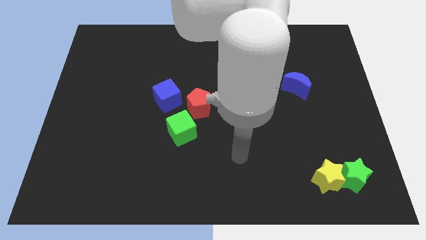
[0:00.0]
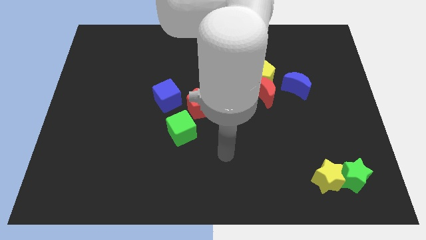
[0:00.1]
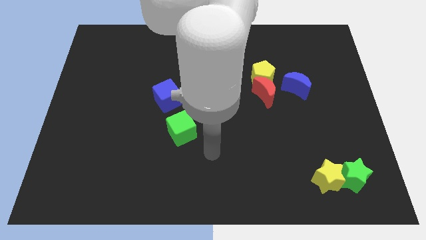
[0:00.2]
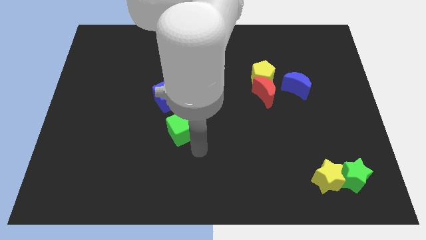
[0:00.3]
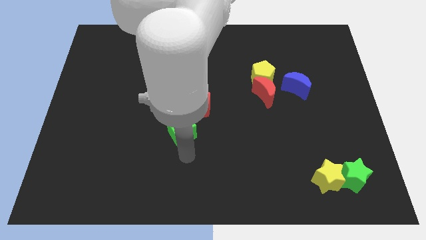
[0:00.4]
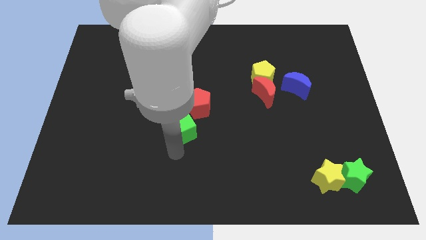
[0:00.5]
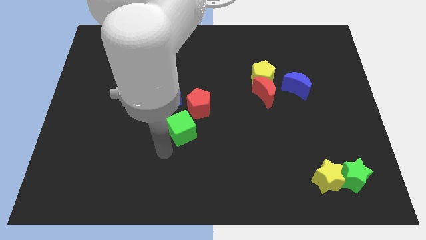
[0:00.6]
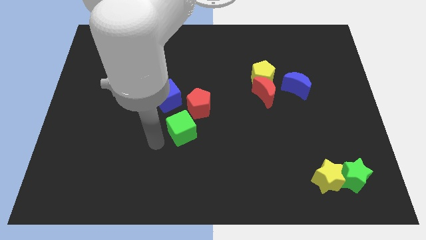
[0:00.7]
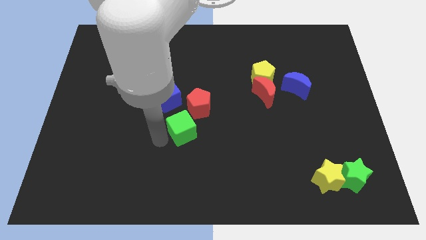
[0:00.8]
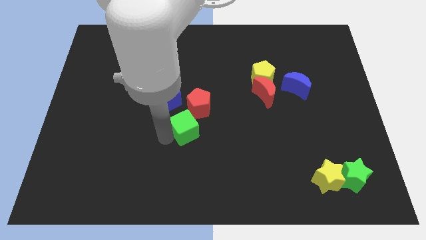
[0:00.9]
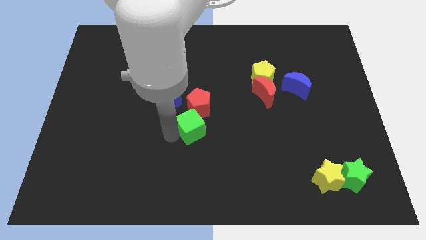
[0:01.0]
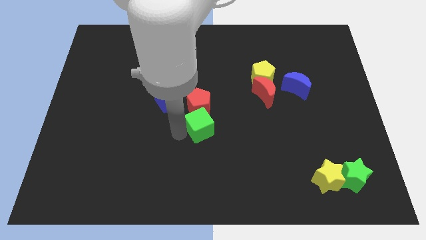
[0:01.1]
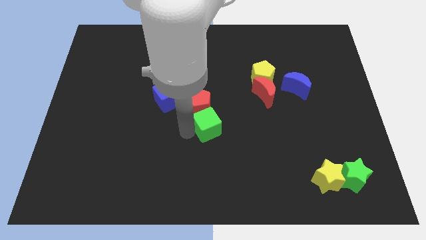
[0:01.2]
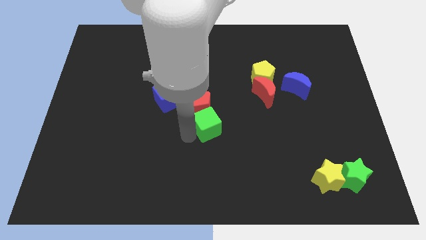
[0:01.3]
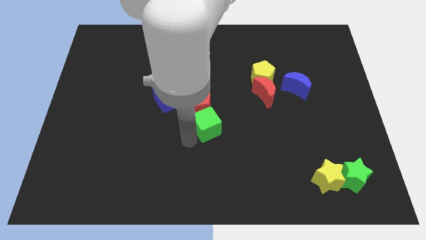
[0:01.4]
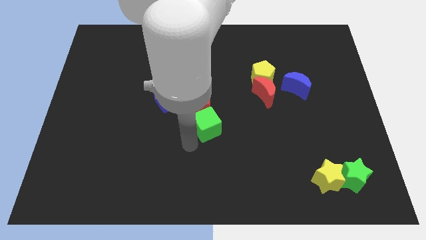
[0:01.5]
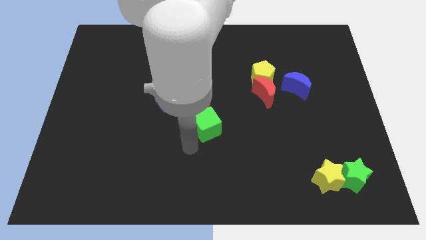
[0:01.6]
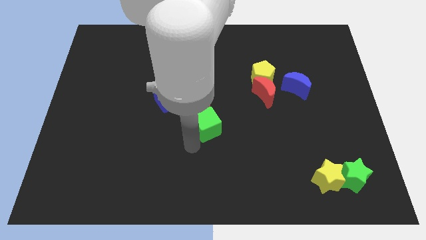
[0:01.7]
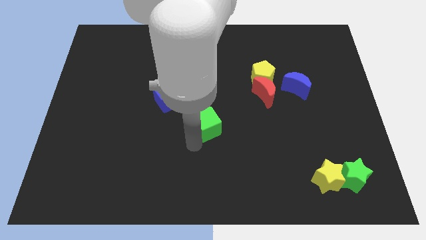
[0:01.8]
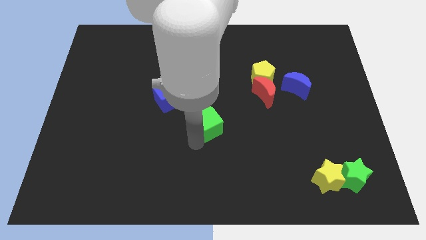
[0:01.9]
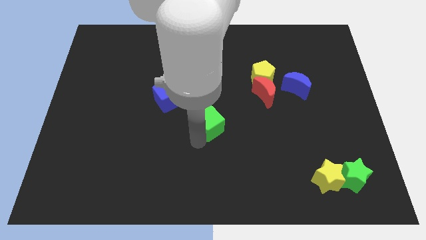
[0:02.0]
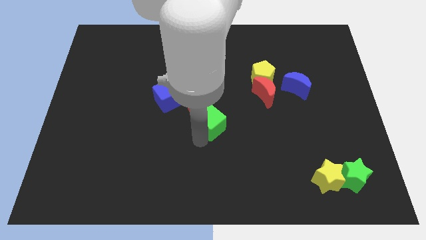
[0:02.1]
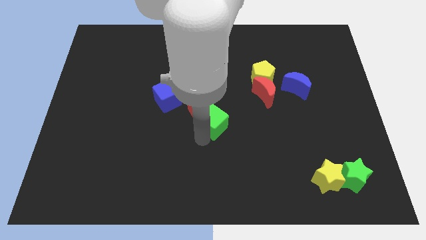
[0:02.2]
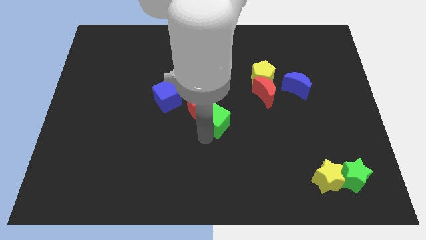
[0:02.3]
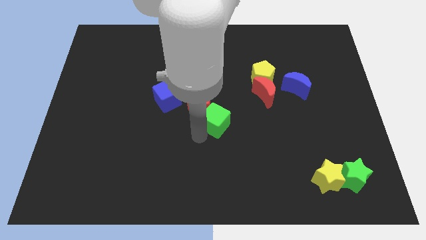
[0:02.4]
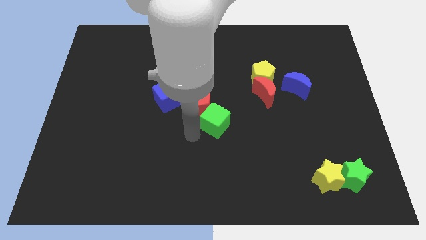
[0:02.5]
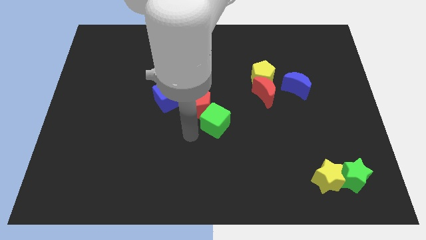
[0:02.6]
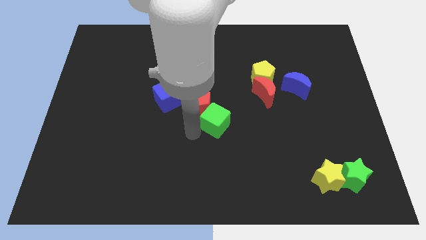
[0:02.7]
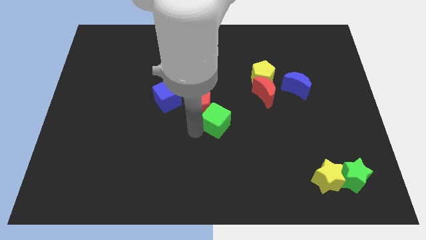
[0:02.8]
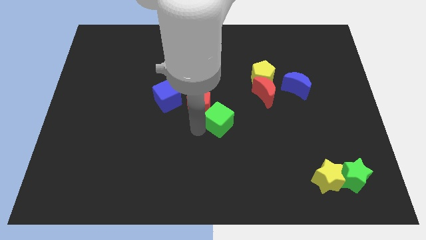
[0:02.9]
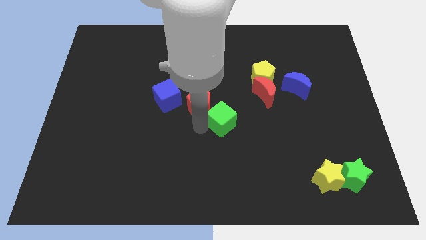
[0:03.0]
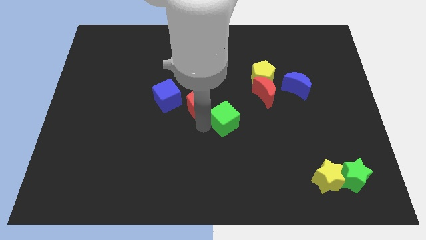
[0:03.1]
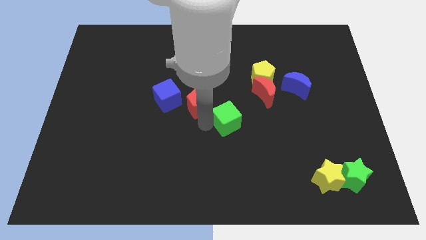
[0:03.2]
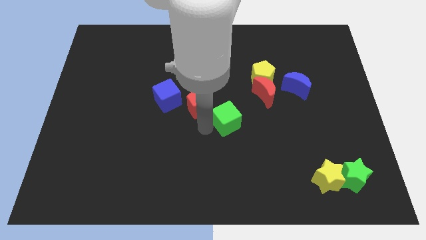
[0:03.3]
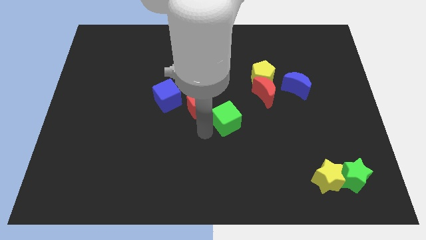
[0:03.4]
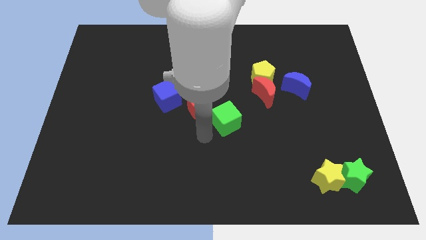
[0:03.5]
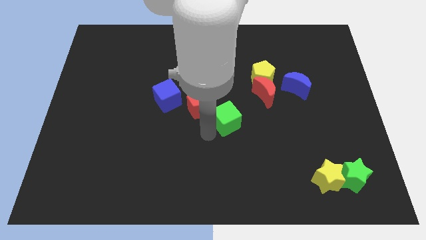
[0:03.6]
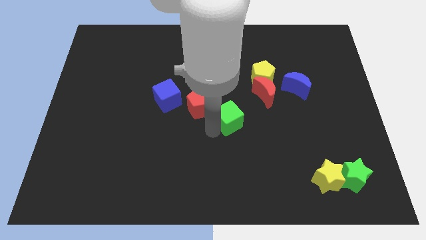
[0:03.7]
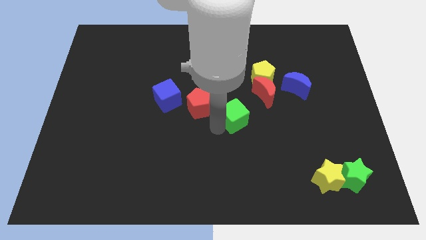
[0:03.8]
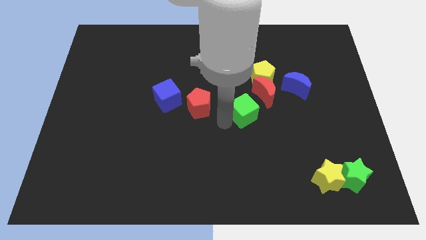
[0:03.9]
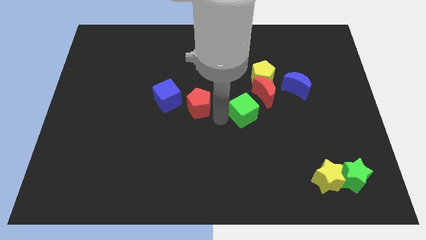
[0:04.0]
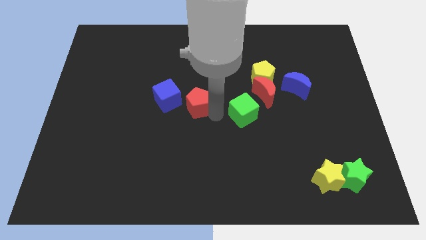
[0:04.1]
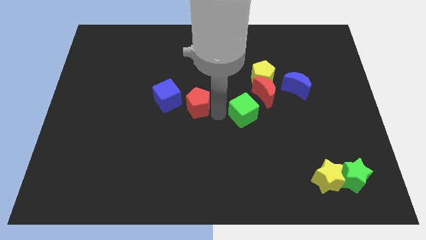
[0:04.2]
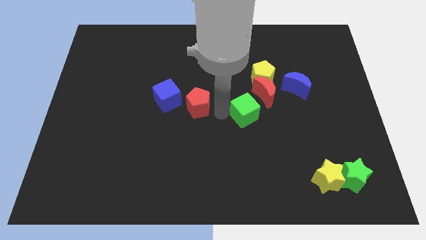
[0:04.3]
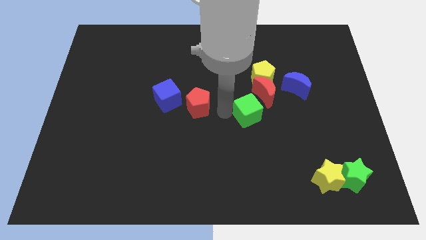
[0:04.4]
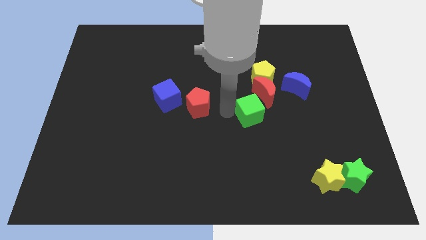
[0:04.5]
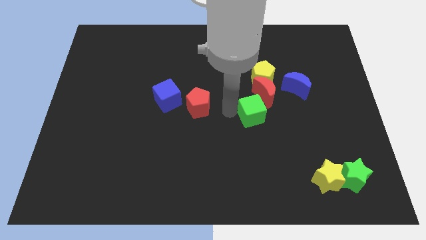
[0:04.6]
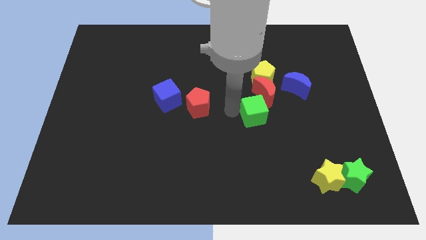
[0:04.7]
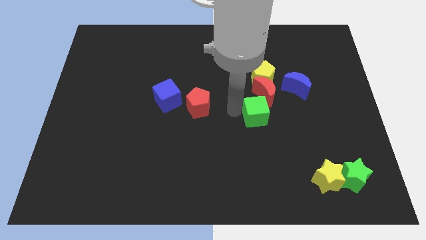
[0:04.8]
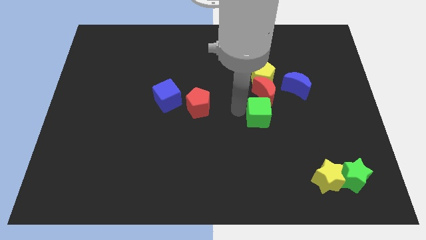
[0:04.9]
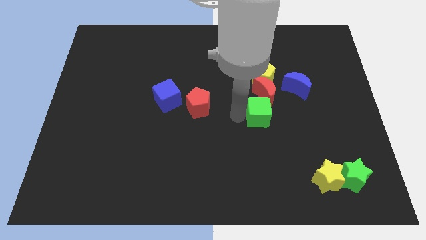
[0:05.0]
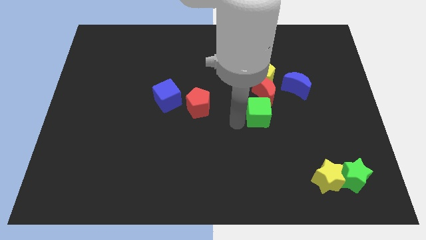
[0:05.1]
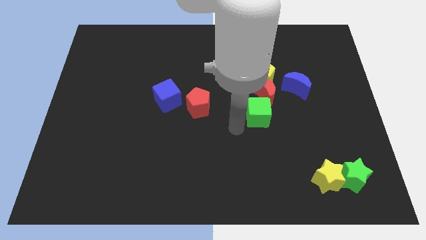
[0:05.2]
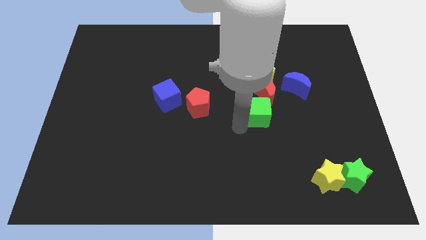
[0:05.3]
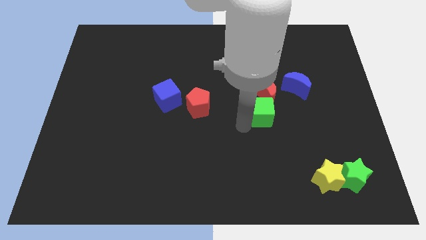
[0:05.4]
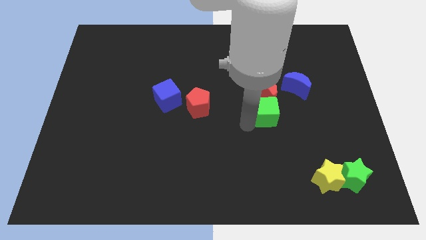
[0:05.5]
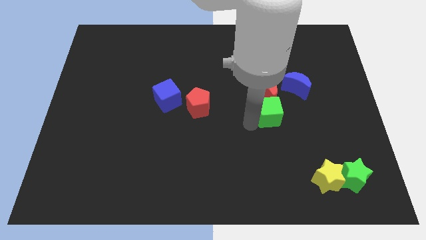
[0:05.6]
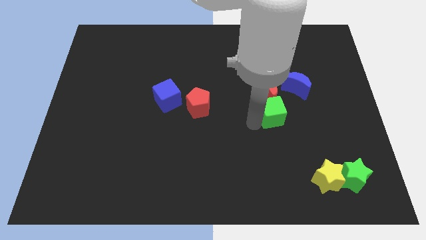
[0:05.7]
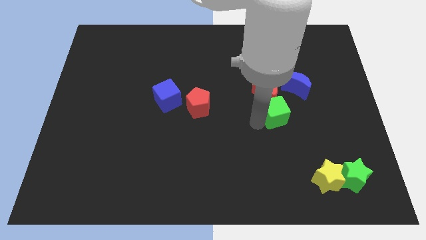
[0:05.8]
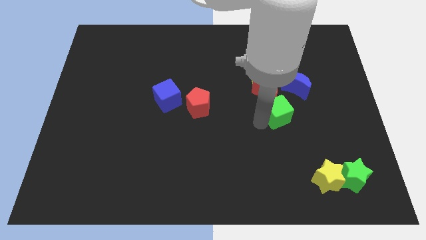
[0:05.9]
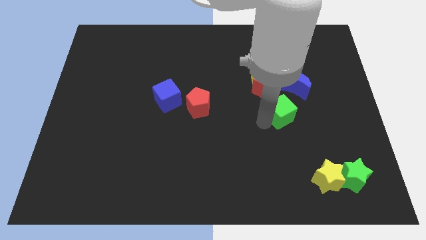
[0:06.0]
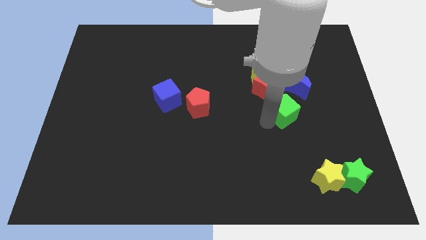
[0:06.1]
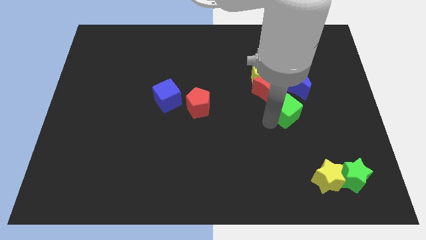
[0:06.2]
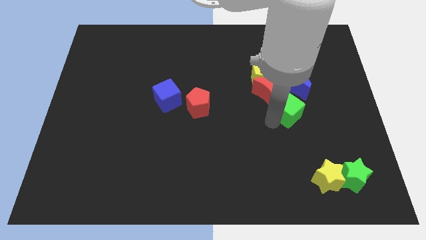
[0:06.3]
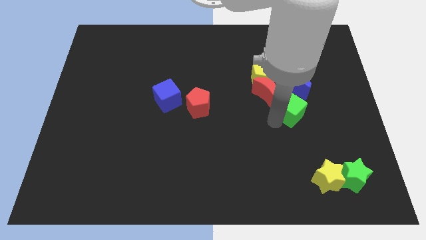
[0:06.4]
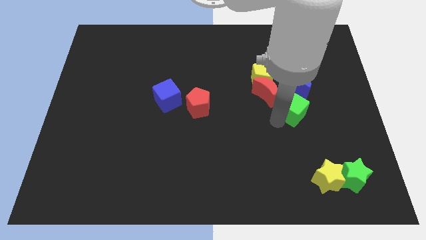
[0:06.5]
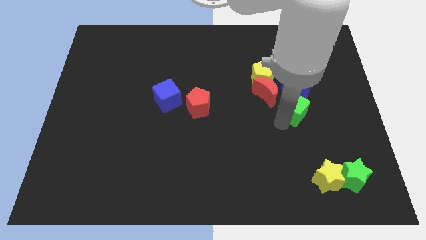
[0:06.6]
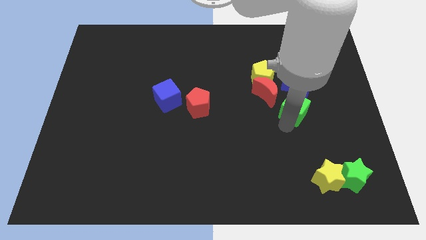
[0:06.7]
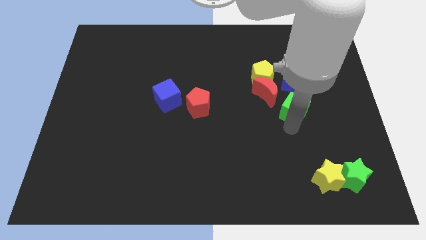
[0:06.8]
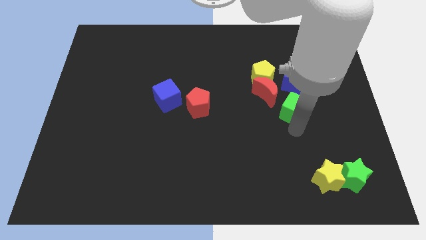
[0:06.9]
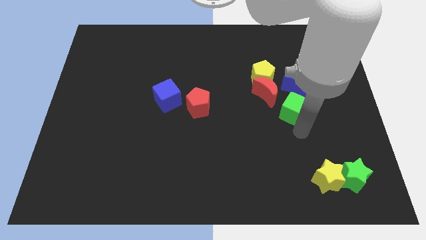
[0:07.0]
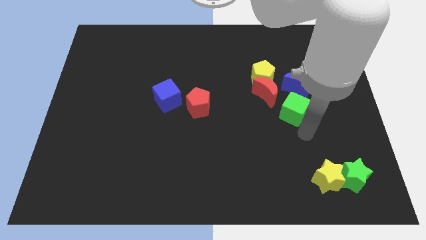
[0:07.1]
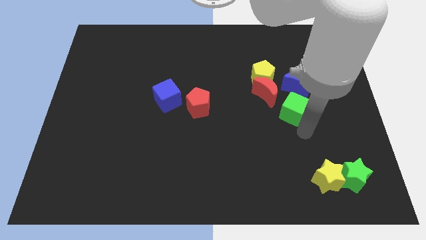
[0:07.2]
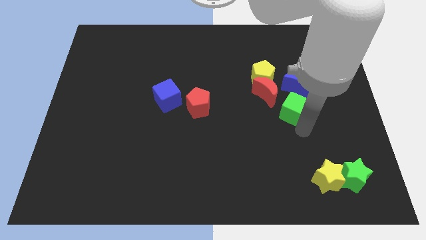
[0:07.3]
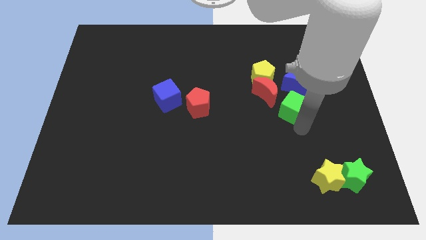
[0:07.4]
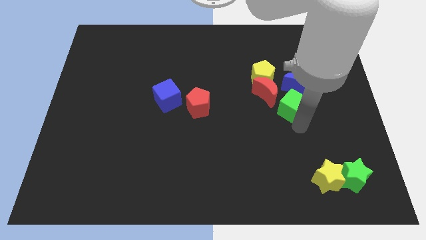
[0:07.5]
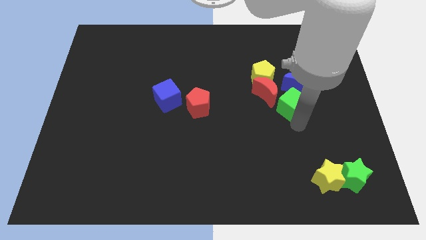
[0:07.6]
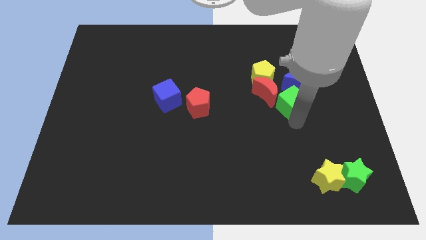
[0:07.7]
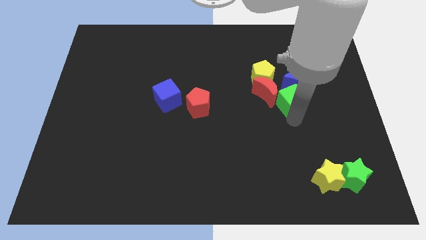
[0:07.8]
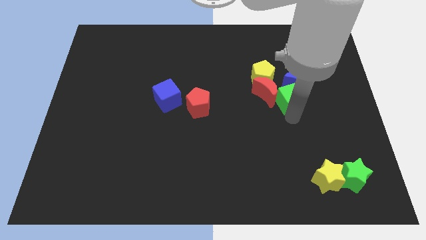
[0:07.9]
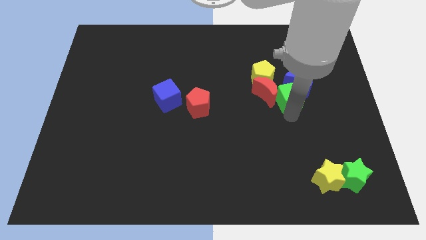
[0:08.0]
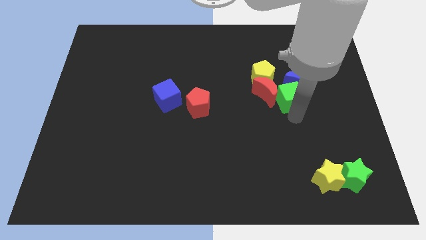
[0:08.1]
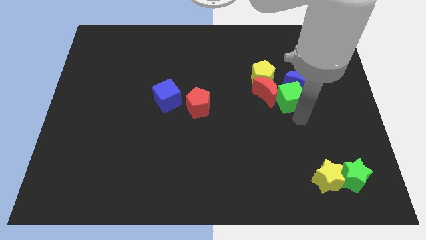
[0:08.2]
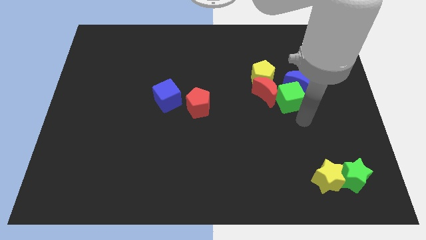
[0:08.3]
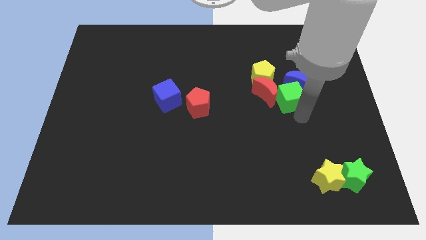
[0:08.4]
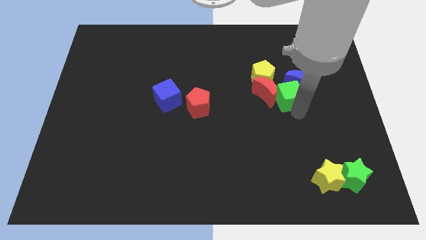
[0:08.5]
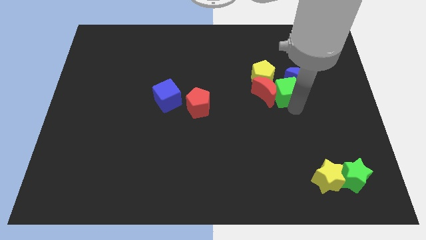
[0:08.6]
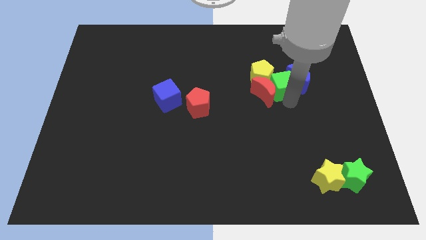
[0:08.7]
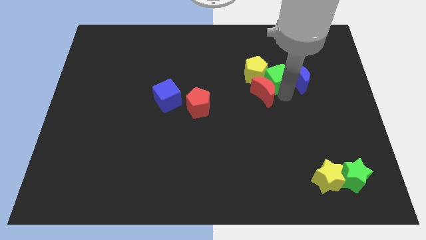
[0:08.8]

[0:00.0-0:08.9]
move the green cube to the top left of the blue moon
